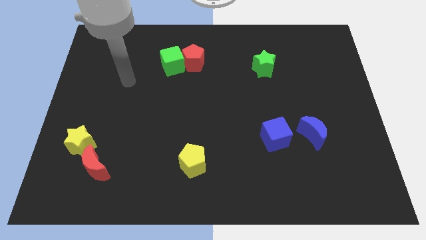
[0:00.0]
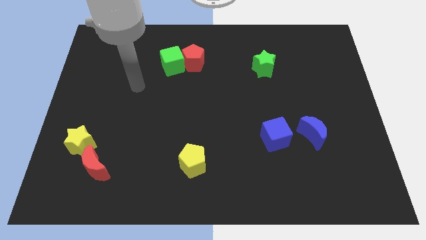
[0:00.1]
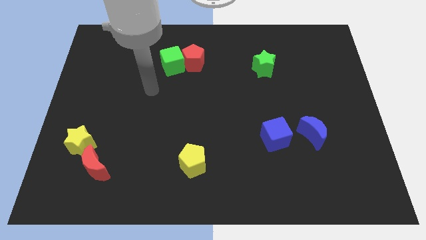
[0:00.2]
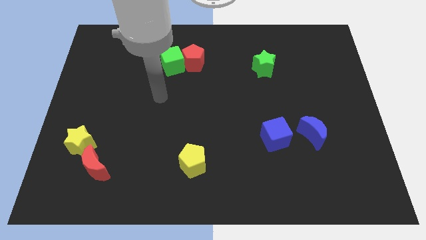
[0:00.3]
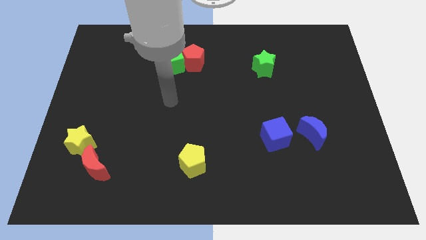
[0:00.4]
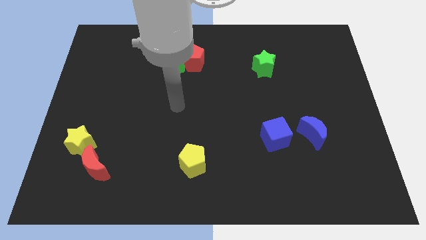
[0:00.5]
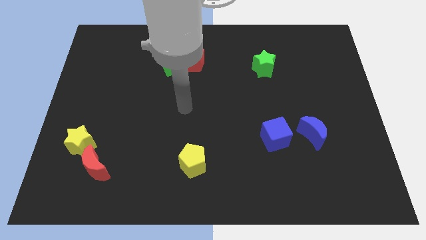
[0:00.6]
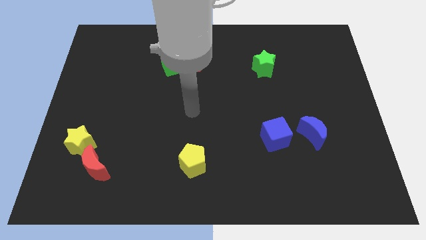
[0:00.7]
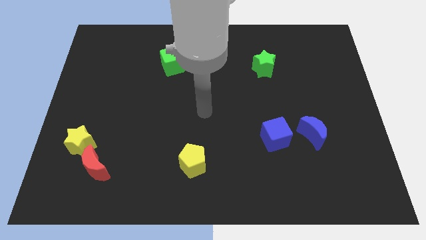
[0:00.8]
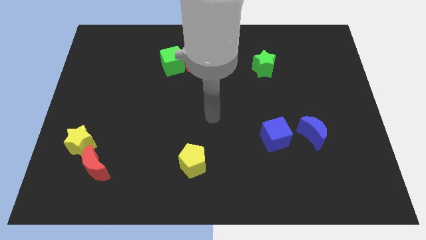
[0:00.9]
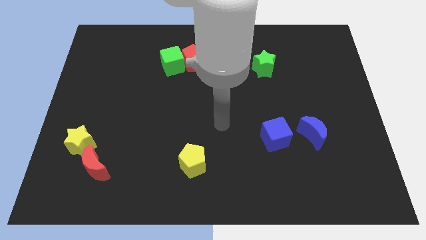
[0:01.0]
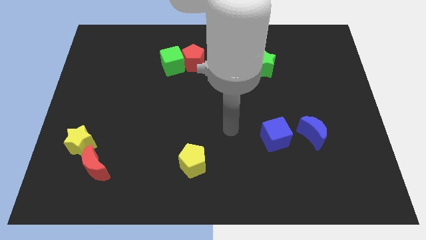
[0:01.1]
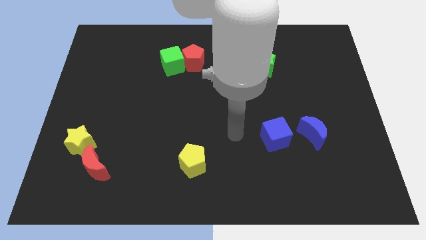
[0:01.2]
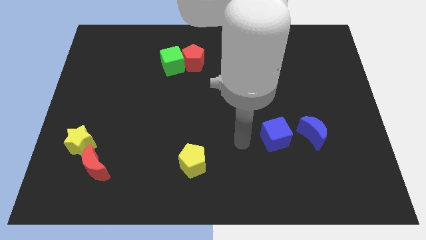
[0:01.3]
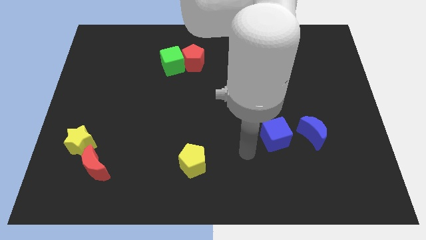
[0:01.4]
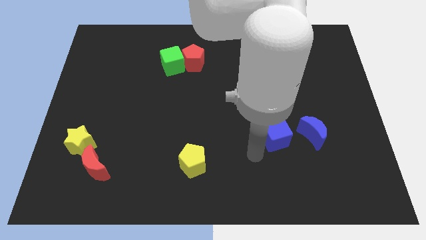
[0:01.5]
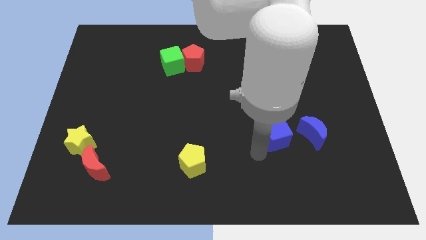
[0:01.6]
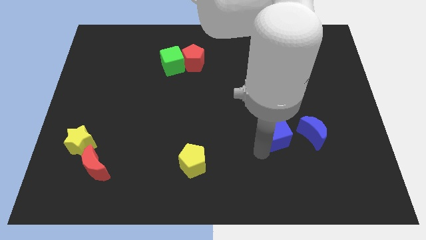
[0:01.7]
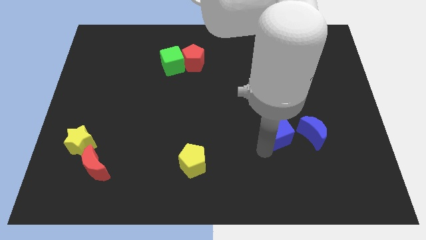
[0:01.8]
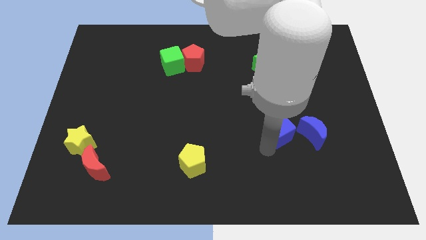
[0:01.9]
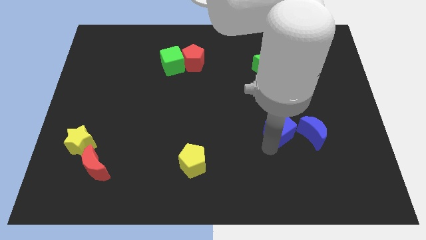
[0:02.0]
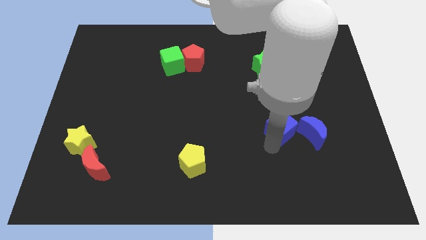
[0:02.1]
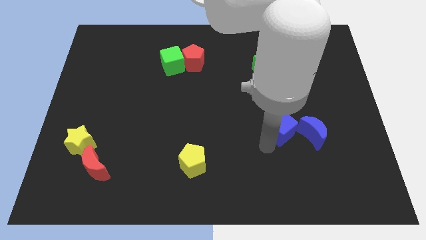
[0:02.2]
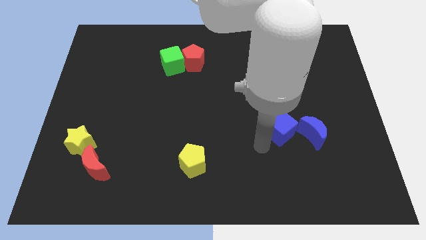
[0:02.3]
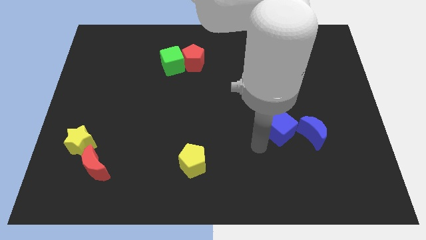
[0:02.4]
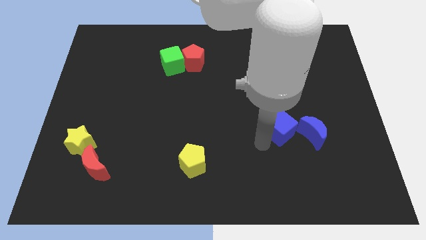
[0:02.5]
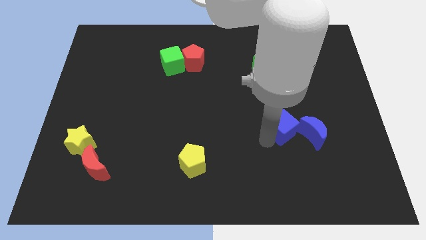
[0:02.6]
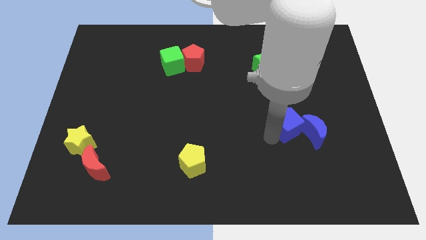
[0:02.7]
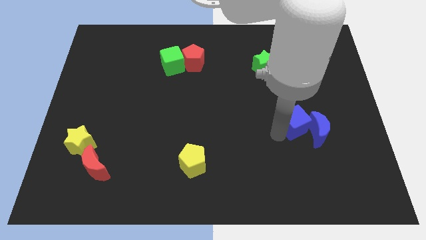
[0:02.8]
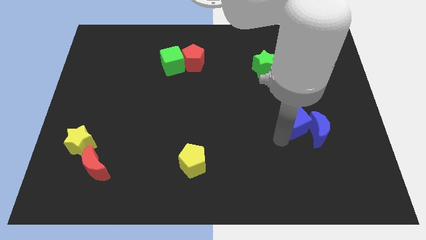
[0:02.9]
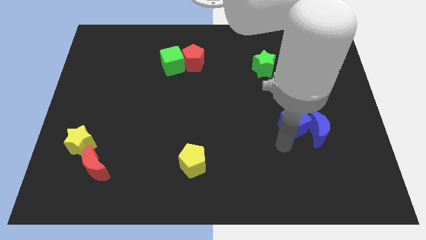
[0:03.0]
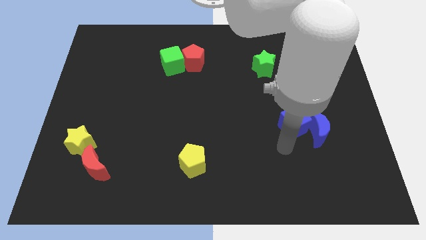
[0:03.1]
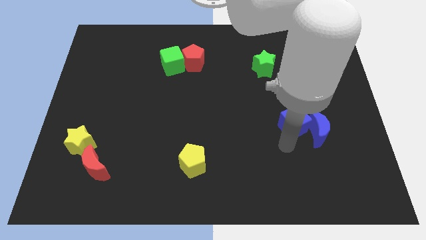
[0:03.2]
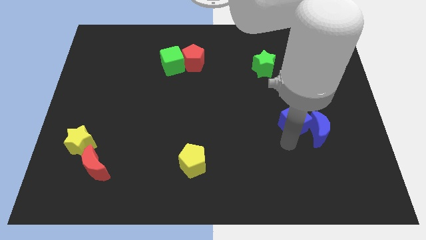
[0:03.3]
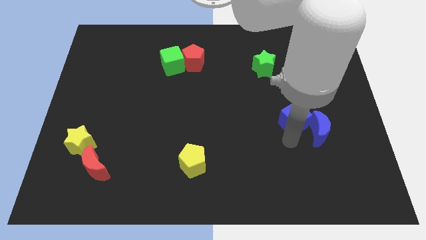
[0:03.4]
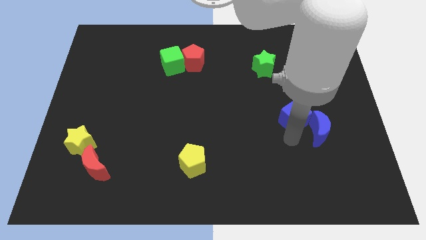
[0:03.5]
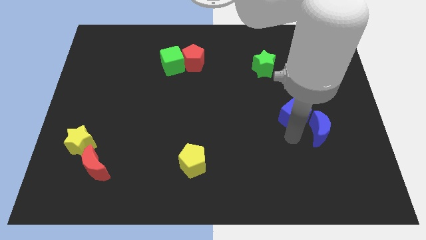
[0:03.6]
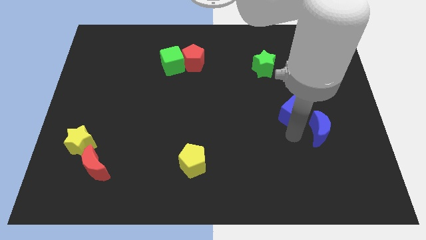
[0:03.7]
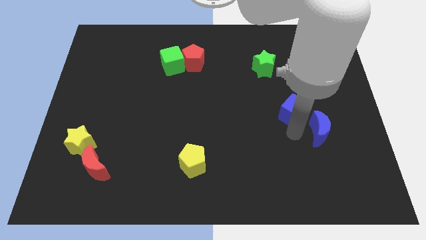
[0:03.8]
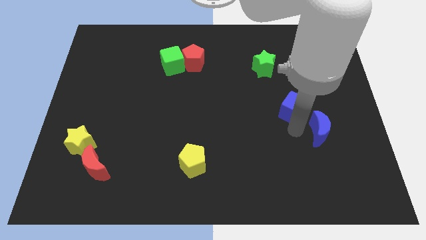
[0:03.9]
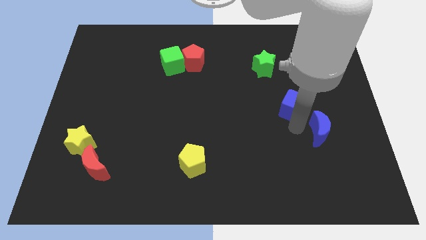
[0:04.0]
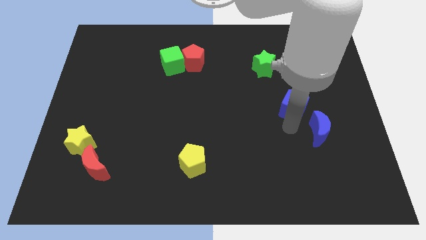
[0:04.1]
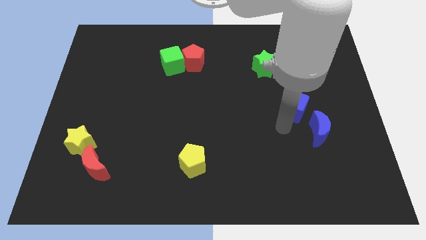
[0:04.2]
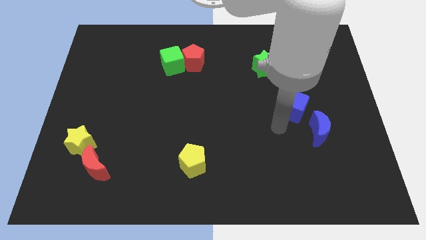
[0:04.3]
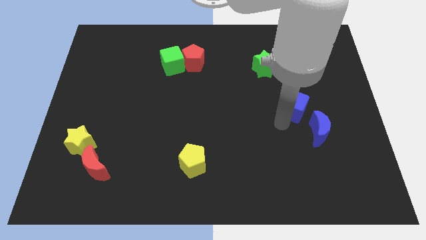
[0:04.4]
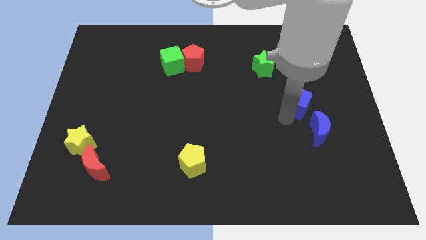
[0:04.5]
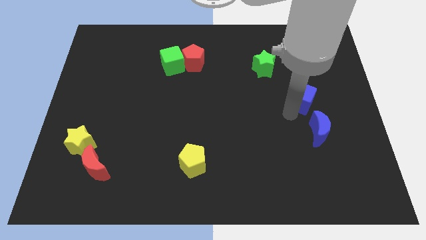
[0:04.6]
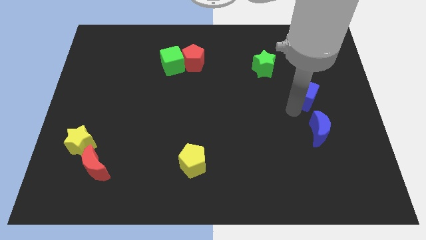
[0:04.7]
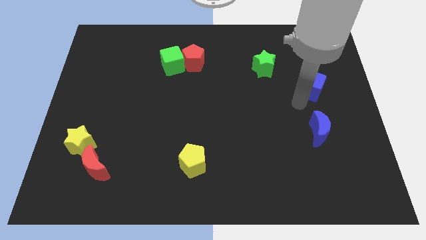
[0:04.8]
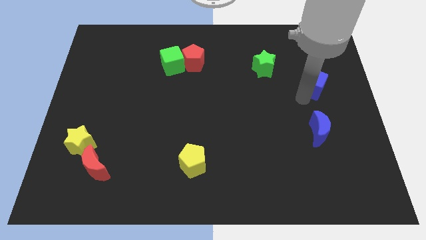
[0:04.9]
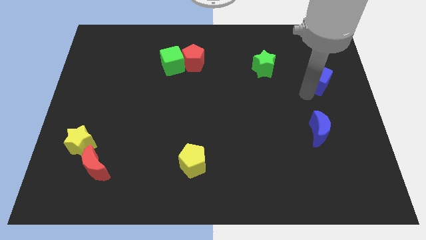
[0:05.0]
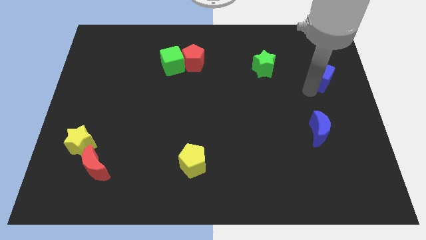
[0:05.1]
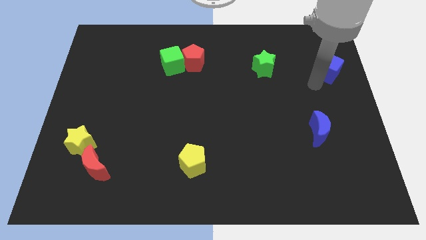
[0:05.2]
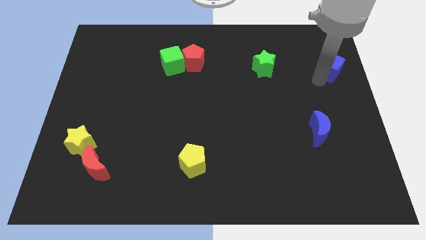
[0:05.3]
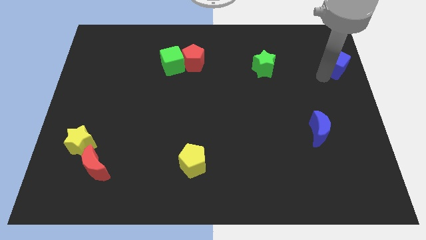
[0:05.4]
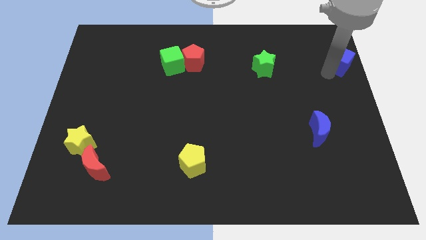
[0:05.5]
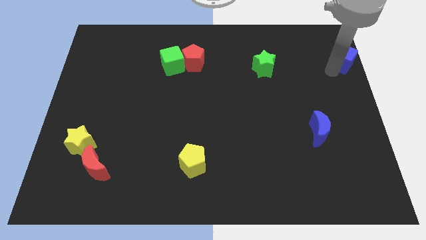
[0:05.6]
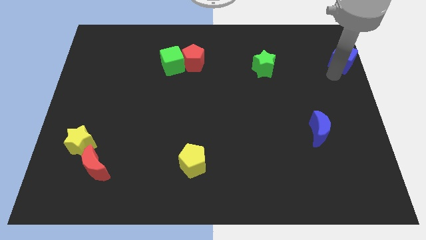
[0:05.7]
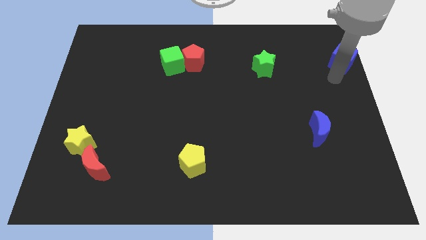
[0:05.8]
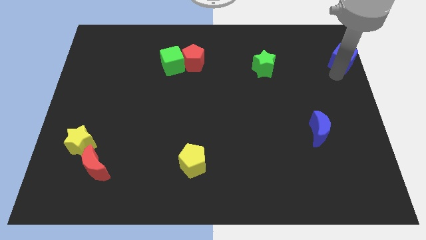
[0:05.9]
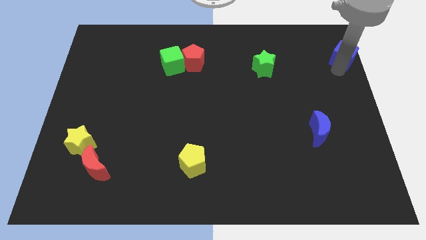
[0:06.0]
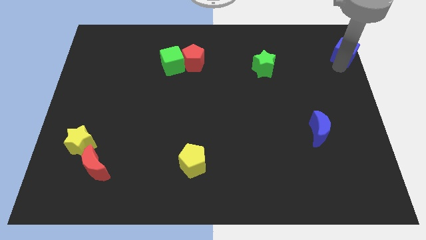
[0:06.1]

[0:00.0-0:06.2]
slide the blue cube to the top right

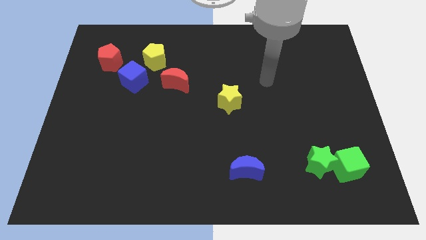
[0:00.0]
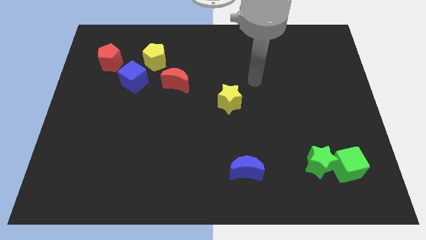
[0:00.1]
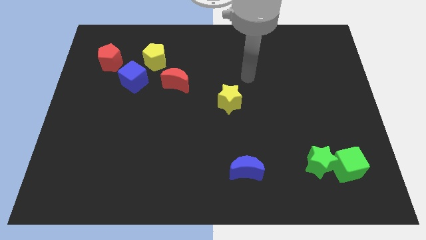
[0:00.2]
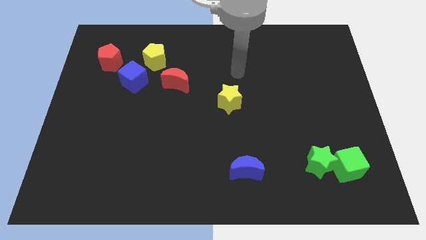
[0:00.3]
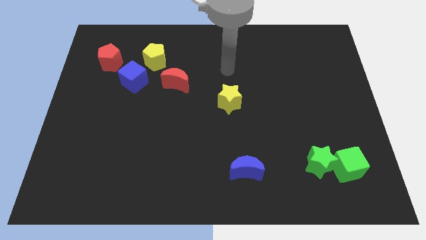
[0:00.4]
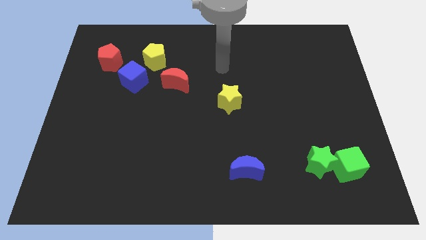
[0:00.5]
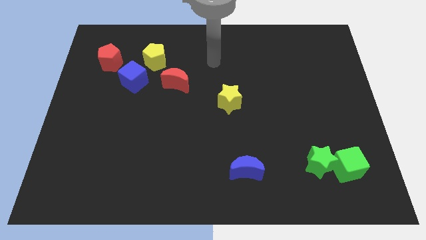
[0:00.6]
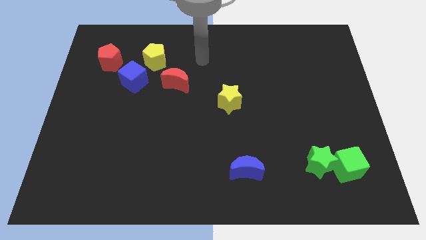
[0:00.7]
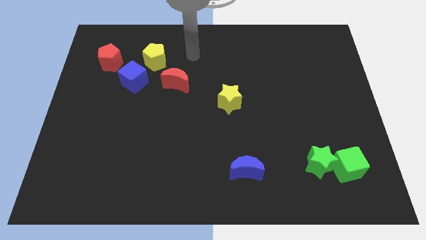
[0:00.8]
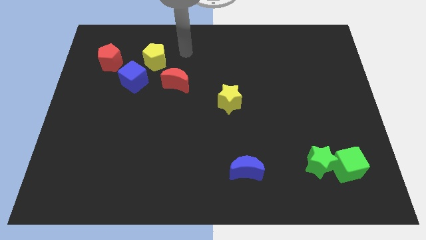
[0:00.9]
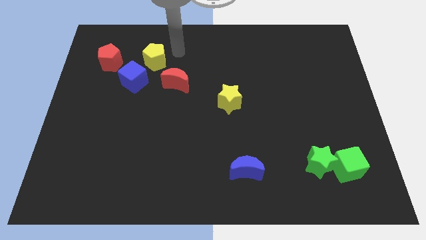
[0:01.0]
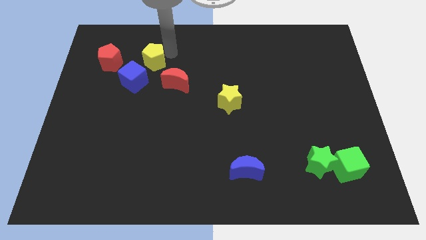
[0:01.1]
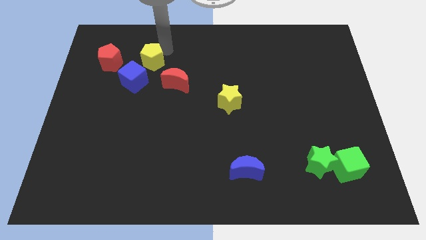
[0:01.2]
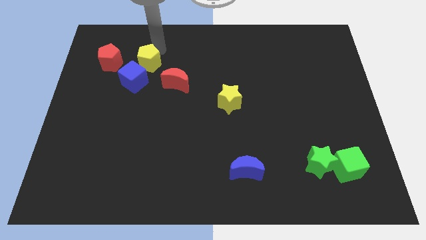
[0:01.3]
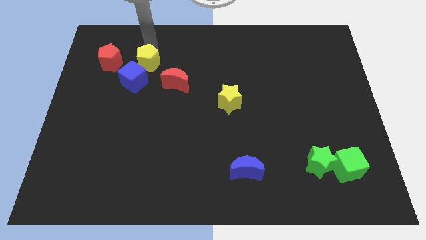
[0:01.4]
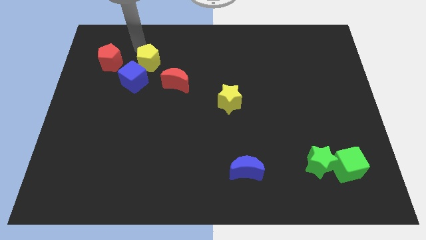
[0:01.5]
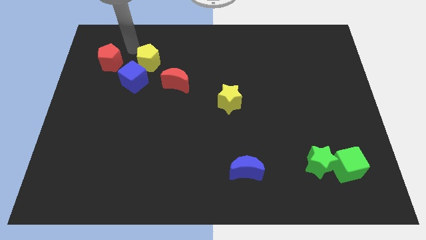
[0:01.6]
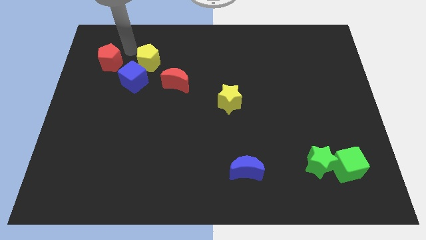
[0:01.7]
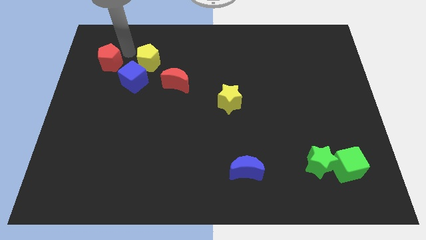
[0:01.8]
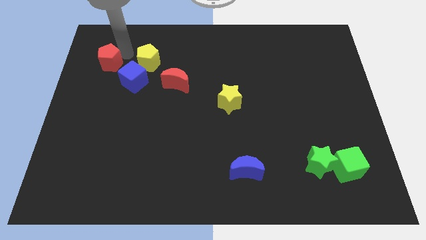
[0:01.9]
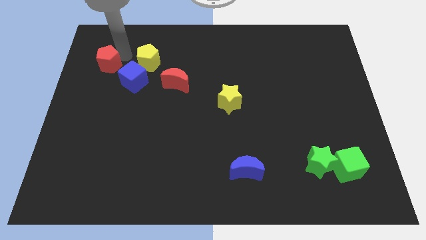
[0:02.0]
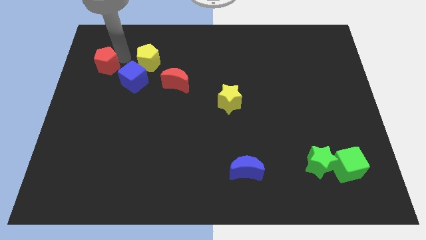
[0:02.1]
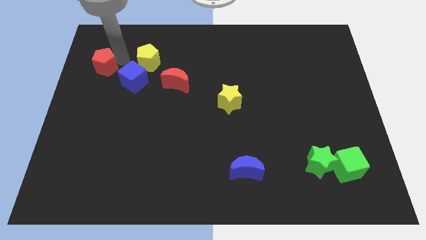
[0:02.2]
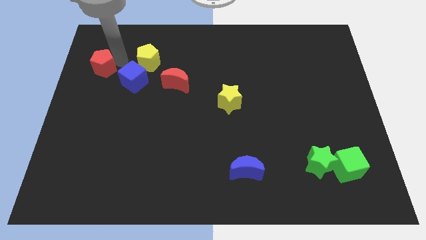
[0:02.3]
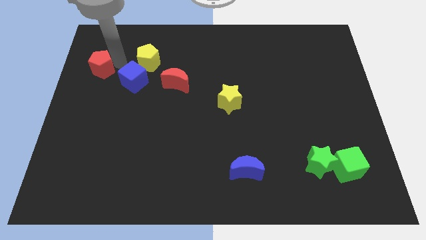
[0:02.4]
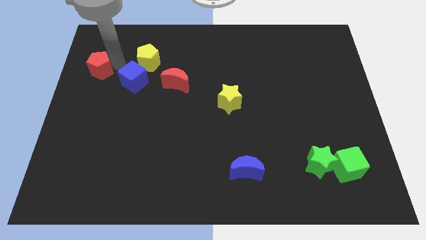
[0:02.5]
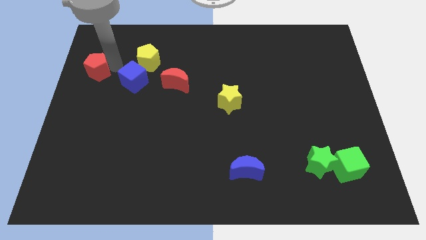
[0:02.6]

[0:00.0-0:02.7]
put the red pentagon to the left side
